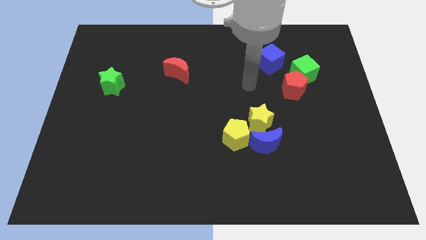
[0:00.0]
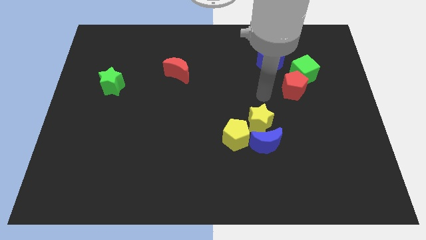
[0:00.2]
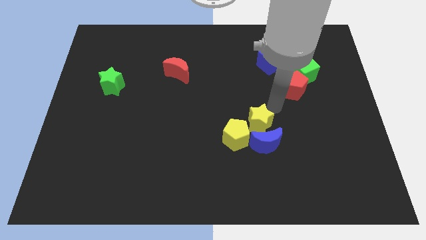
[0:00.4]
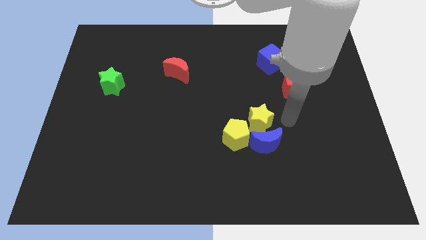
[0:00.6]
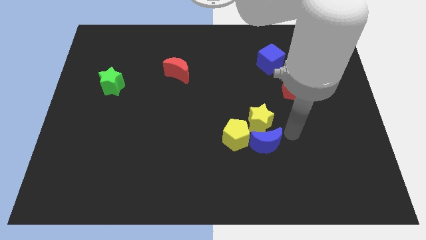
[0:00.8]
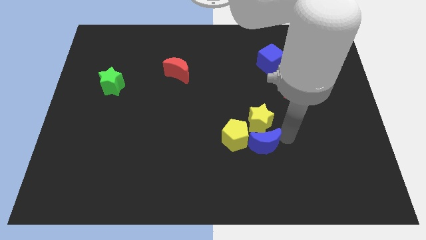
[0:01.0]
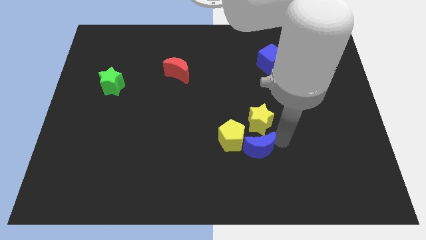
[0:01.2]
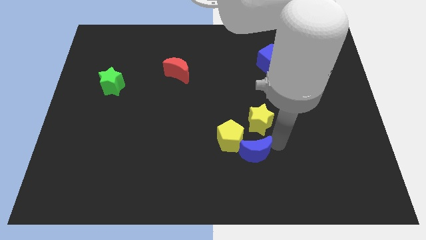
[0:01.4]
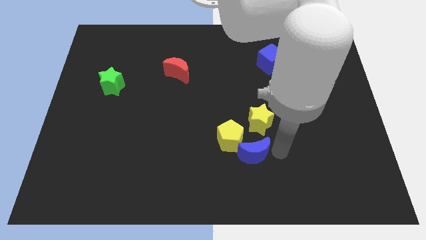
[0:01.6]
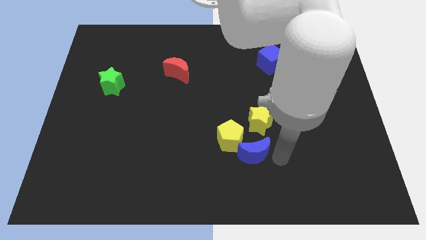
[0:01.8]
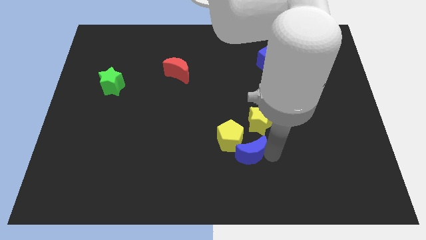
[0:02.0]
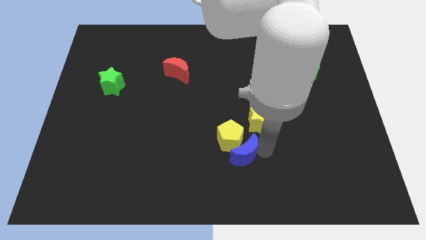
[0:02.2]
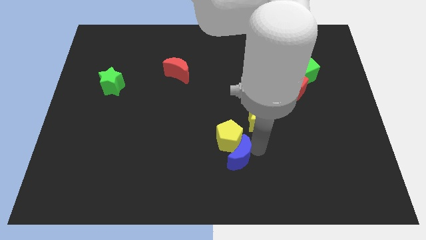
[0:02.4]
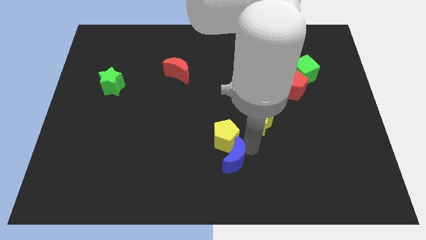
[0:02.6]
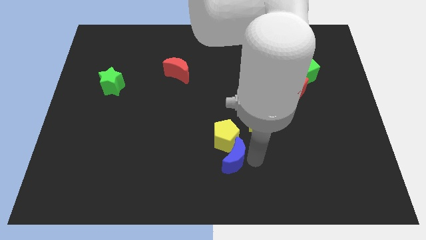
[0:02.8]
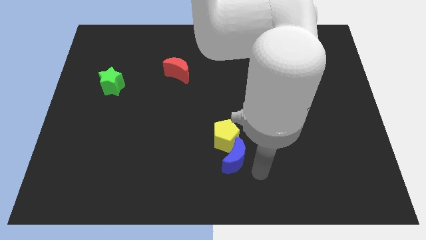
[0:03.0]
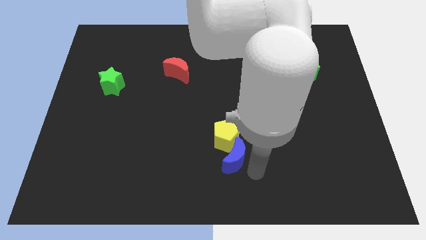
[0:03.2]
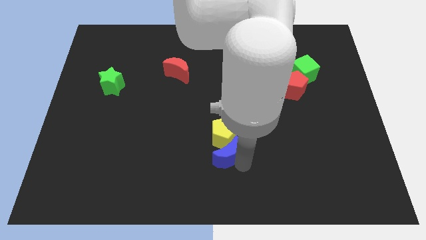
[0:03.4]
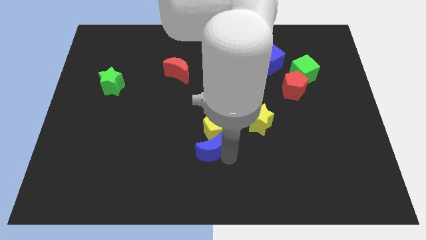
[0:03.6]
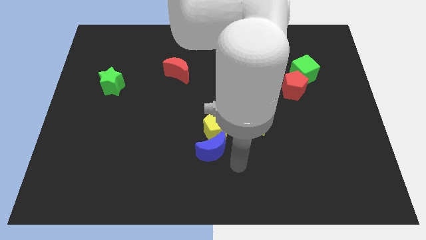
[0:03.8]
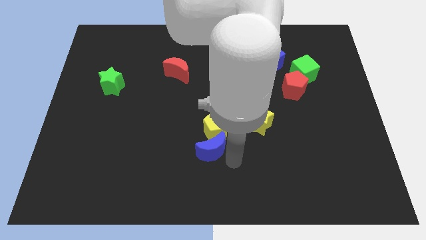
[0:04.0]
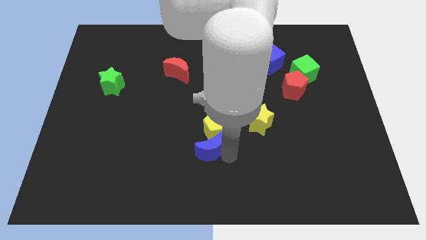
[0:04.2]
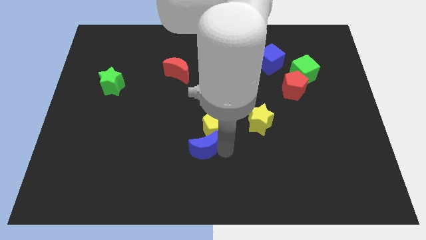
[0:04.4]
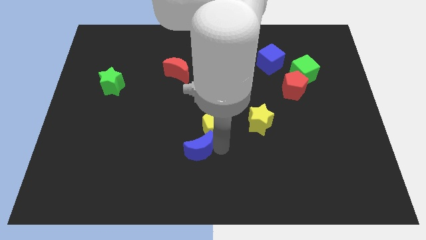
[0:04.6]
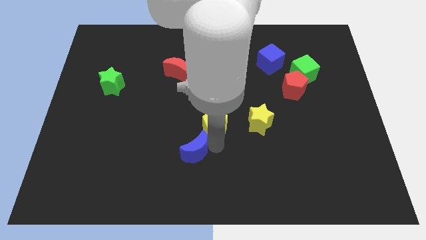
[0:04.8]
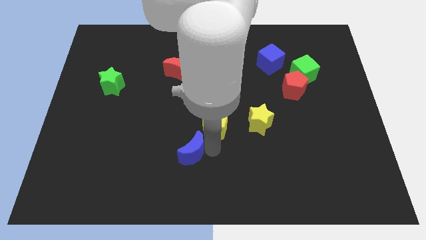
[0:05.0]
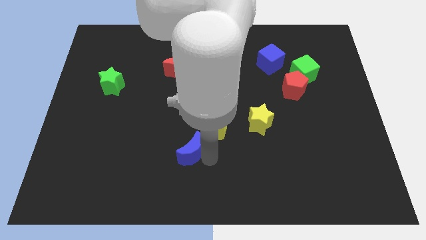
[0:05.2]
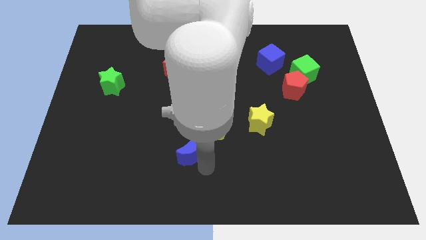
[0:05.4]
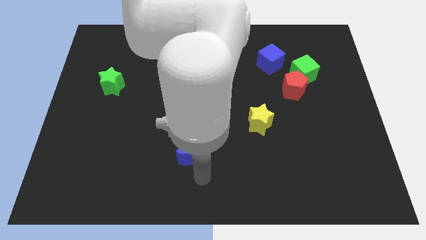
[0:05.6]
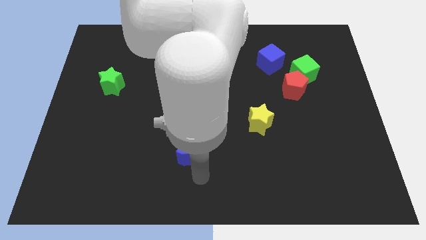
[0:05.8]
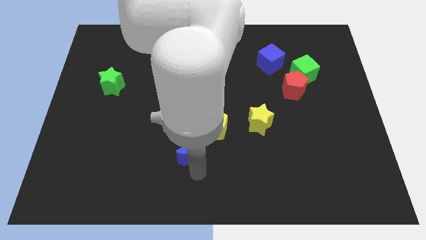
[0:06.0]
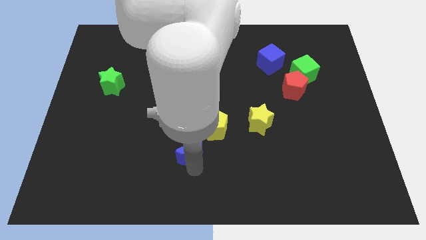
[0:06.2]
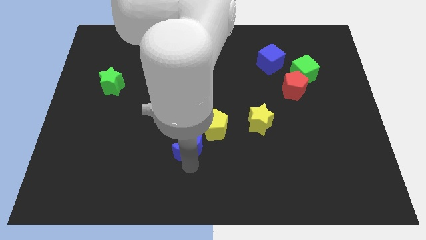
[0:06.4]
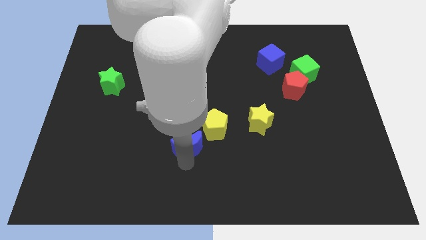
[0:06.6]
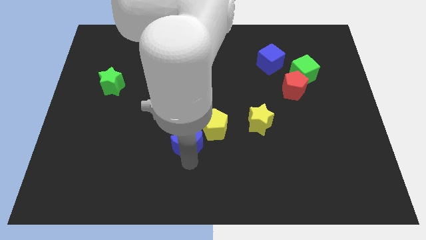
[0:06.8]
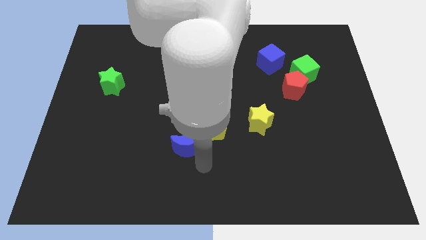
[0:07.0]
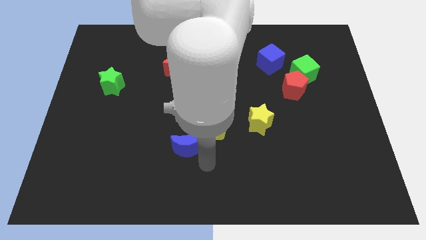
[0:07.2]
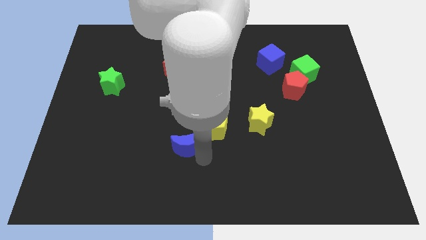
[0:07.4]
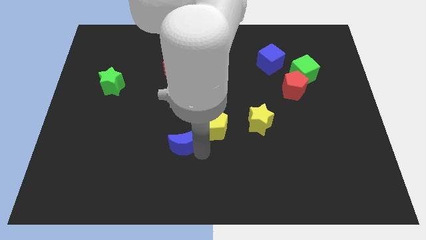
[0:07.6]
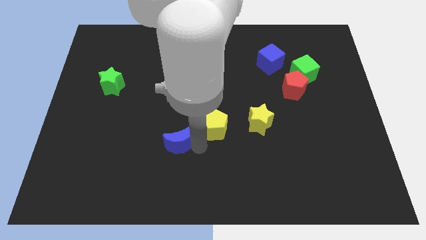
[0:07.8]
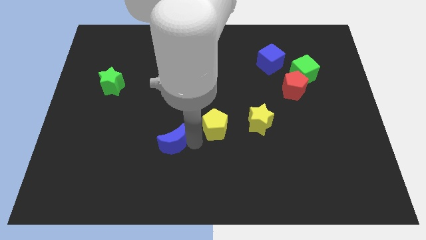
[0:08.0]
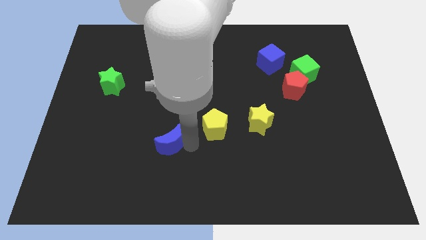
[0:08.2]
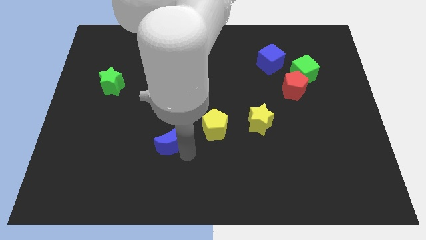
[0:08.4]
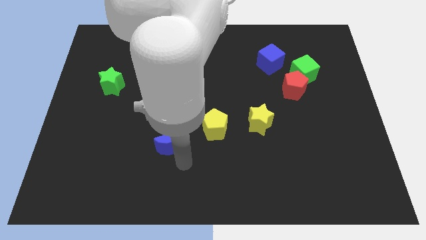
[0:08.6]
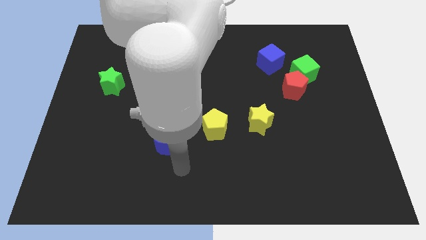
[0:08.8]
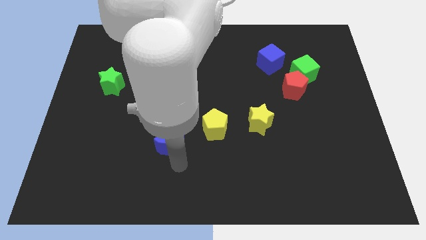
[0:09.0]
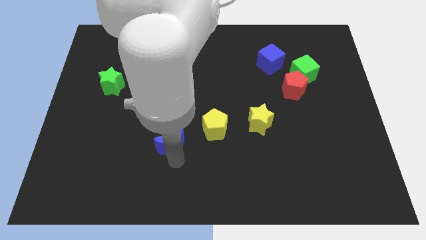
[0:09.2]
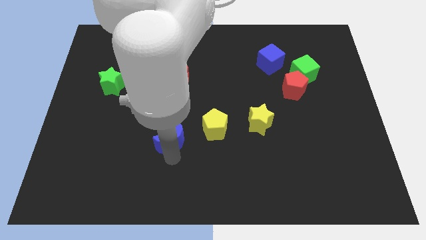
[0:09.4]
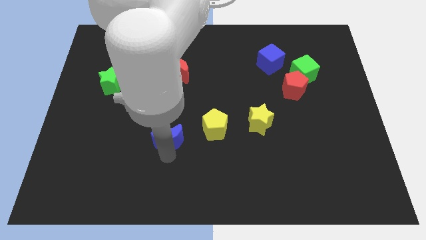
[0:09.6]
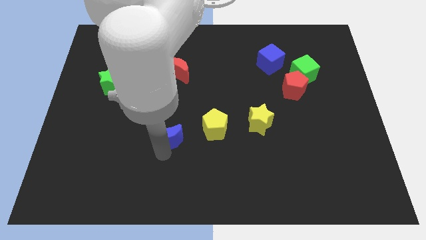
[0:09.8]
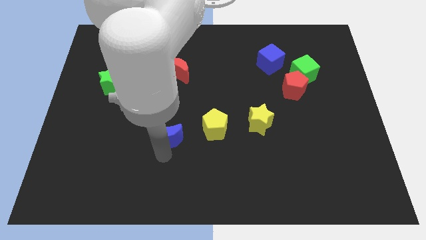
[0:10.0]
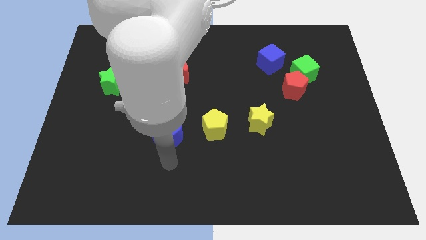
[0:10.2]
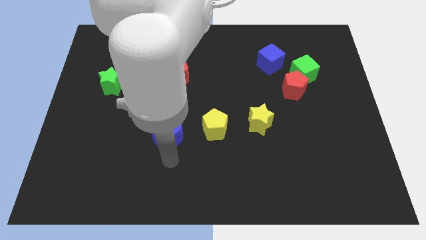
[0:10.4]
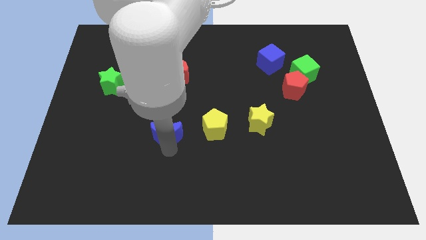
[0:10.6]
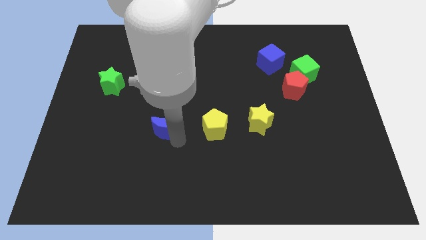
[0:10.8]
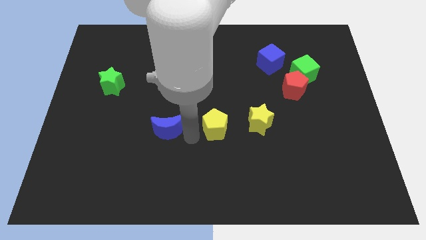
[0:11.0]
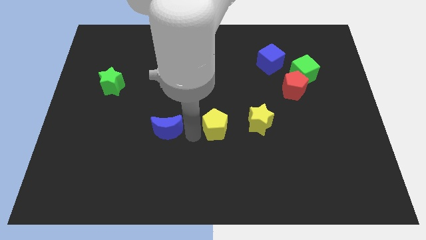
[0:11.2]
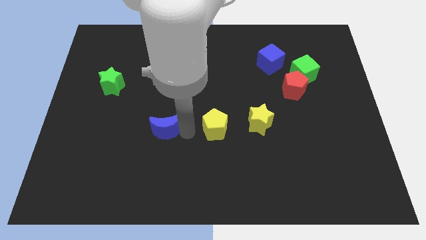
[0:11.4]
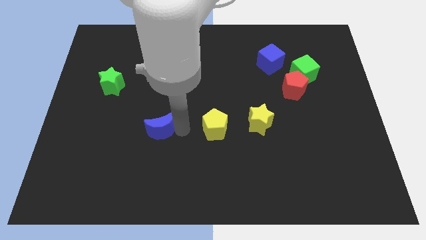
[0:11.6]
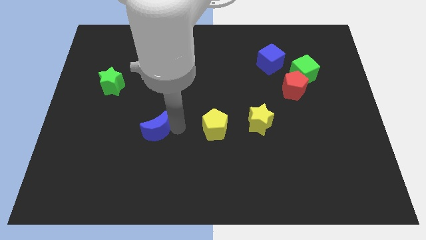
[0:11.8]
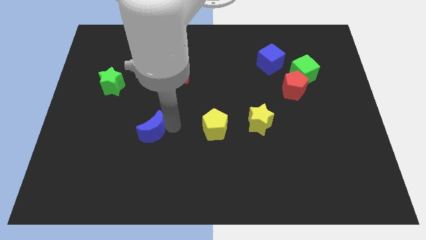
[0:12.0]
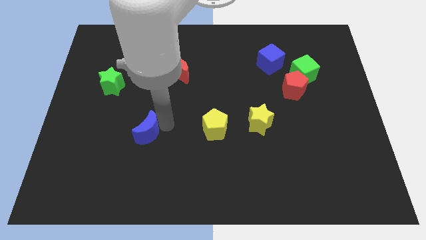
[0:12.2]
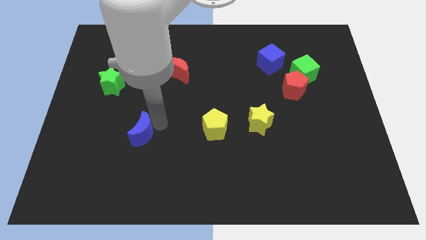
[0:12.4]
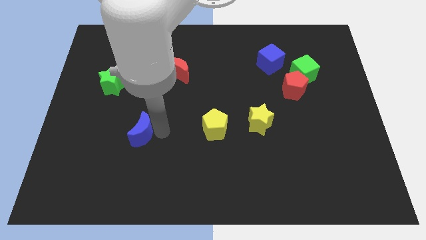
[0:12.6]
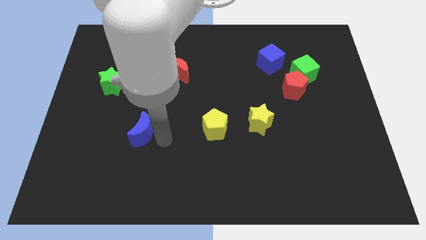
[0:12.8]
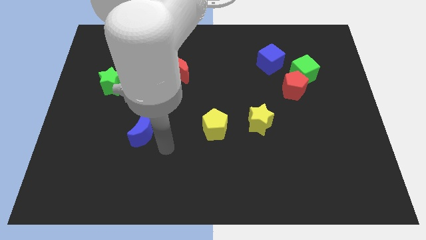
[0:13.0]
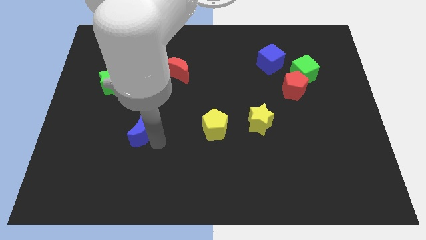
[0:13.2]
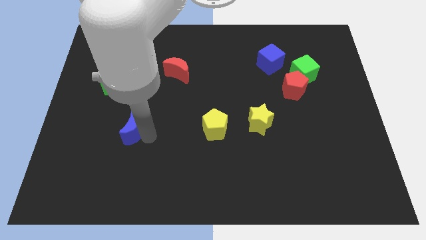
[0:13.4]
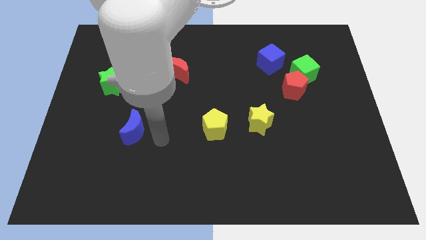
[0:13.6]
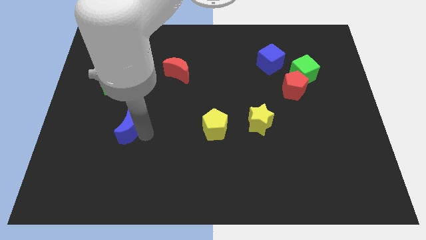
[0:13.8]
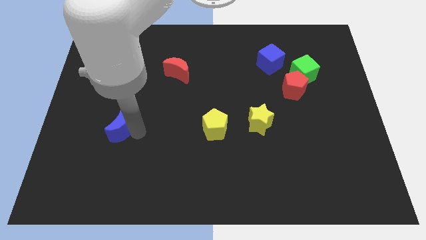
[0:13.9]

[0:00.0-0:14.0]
move the blue moon to the bottom side of the green star

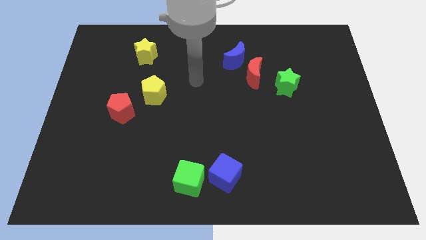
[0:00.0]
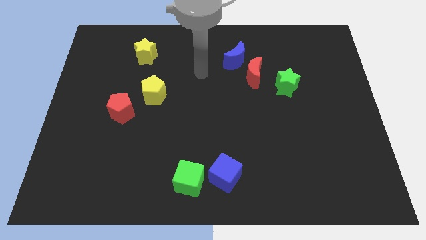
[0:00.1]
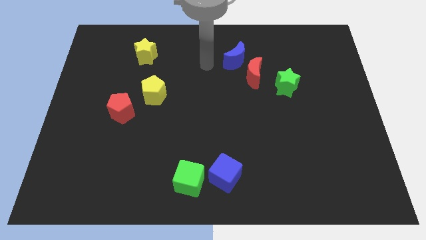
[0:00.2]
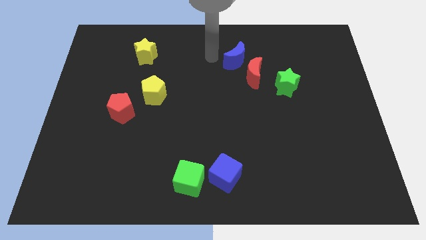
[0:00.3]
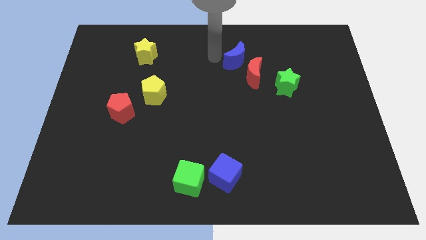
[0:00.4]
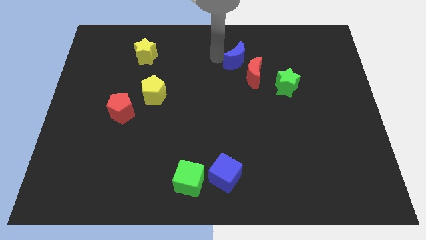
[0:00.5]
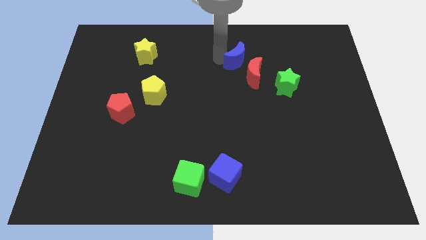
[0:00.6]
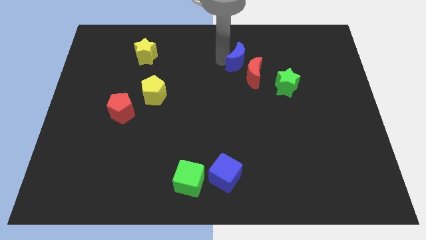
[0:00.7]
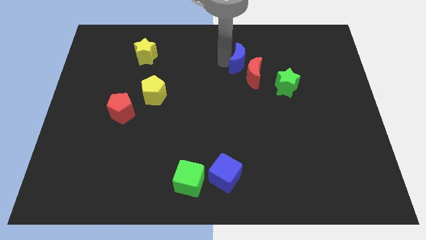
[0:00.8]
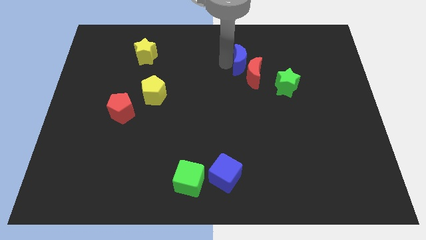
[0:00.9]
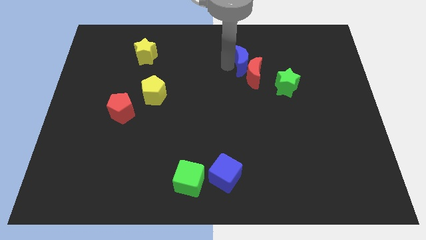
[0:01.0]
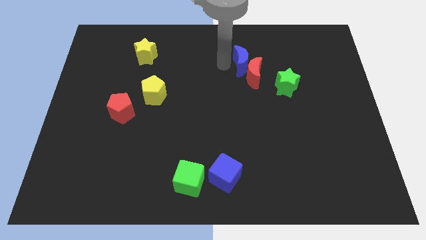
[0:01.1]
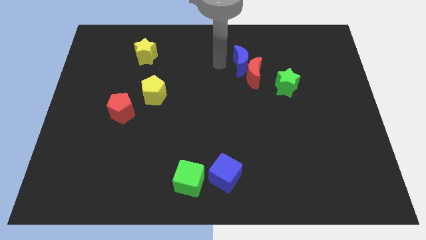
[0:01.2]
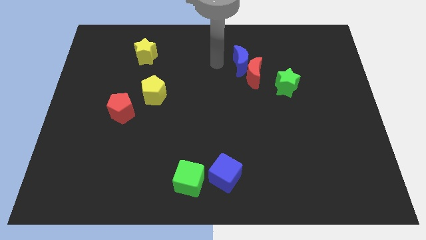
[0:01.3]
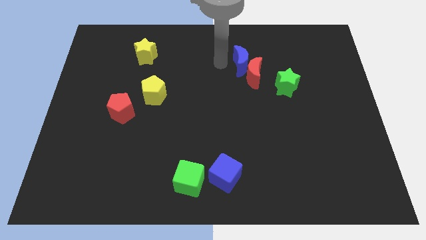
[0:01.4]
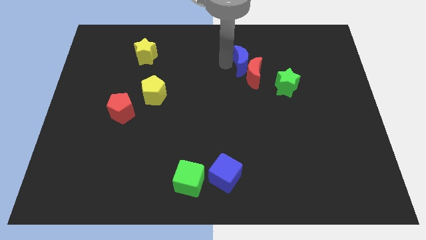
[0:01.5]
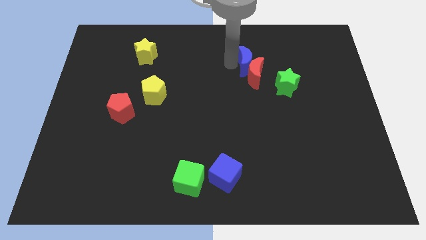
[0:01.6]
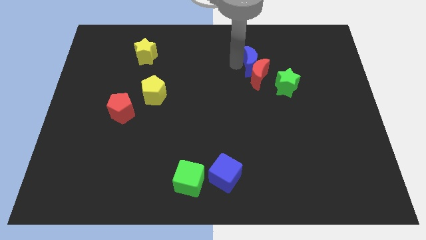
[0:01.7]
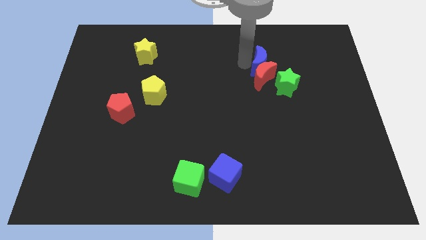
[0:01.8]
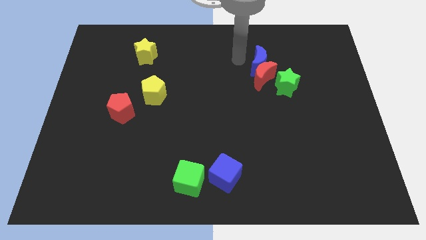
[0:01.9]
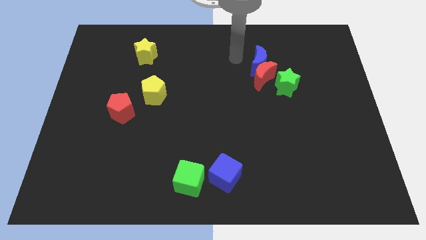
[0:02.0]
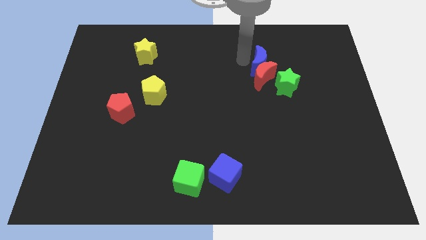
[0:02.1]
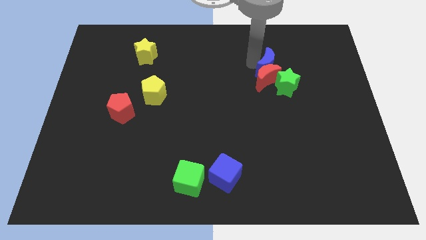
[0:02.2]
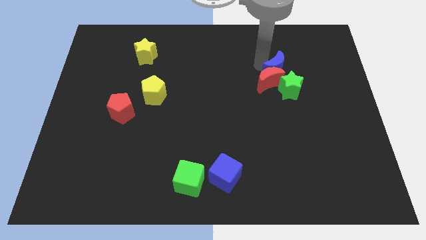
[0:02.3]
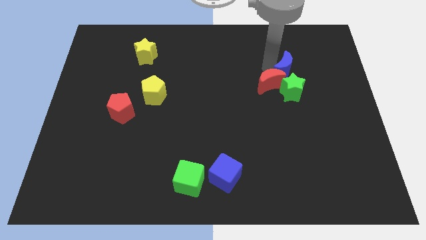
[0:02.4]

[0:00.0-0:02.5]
slide the blue moon just right of the red moon
